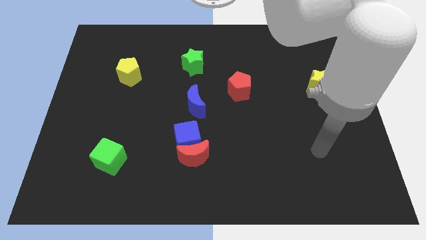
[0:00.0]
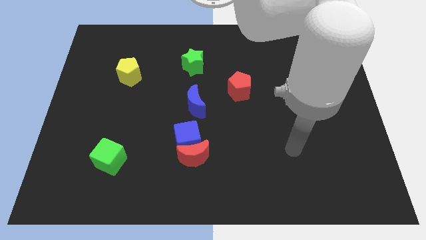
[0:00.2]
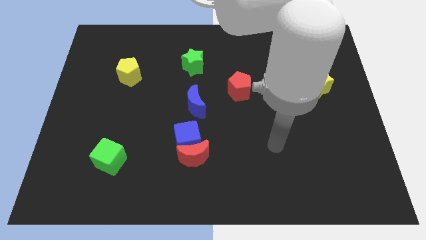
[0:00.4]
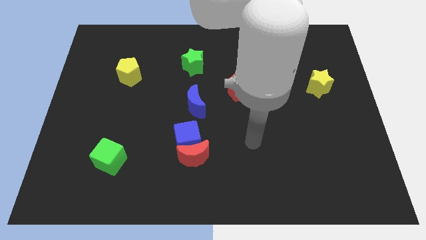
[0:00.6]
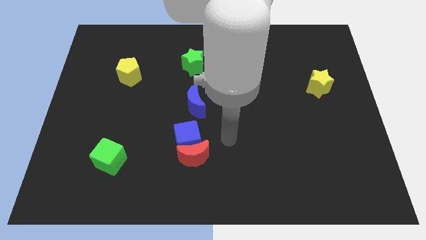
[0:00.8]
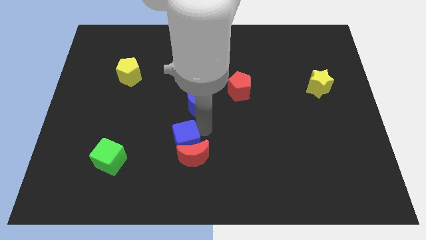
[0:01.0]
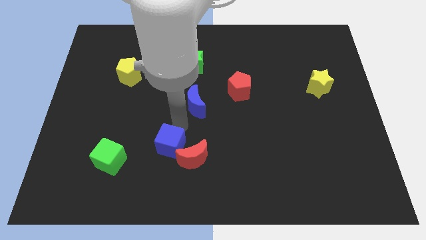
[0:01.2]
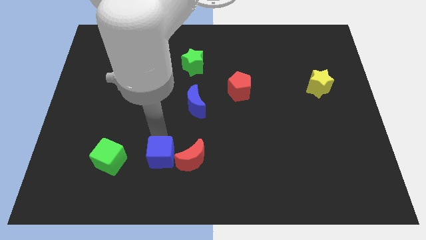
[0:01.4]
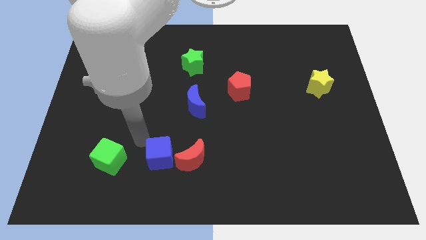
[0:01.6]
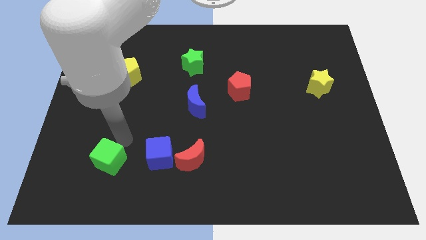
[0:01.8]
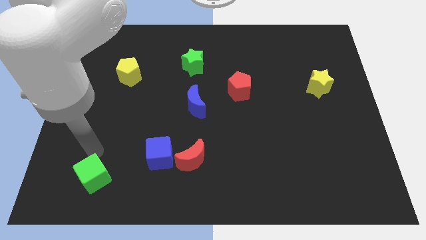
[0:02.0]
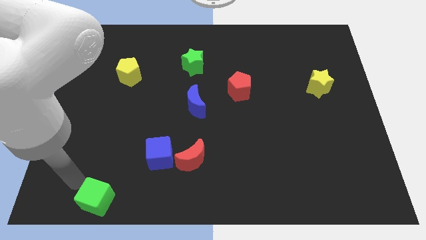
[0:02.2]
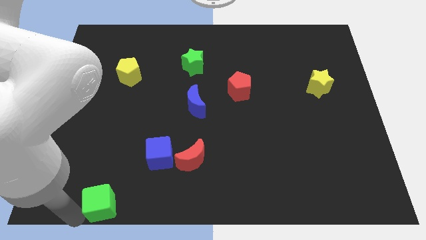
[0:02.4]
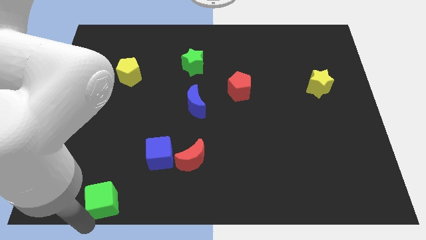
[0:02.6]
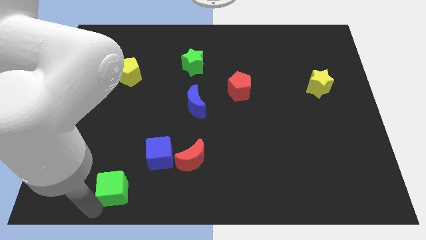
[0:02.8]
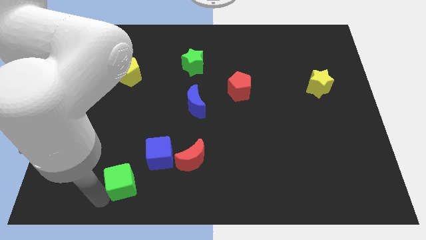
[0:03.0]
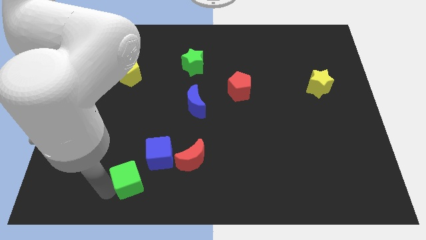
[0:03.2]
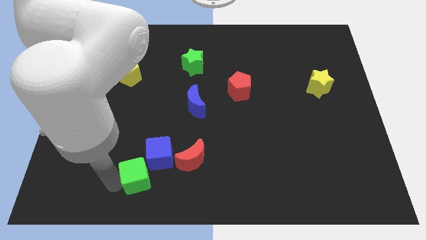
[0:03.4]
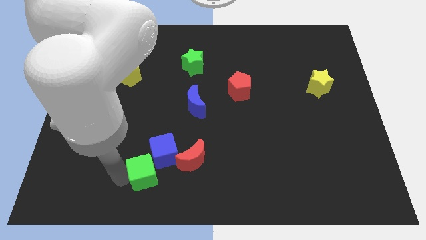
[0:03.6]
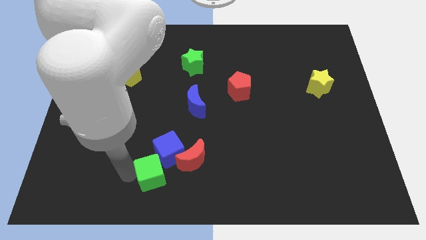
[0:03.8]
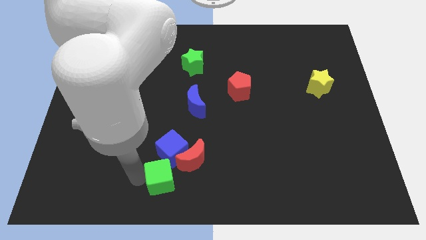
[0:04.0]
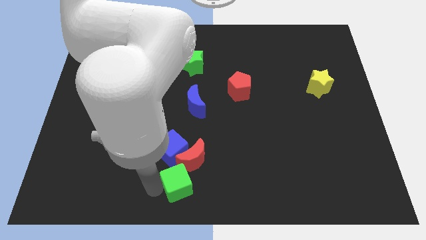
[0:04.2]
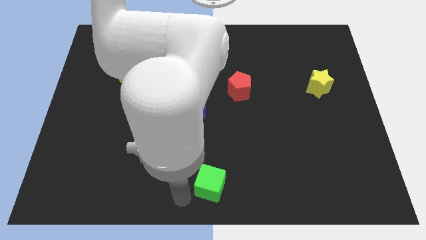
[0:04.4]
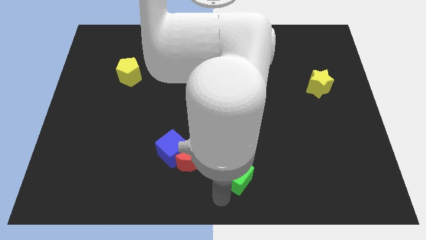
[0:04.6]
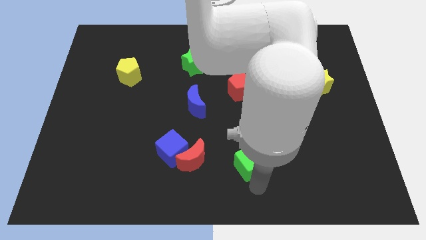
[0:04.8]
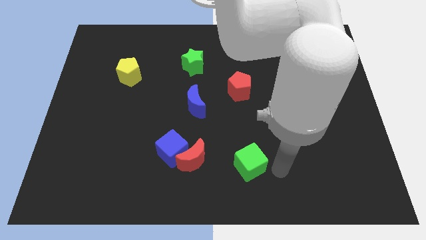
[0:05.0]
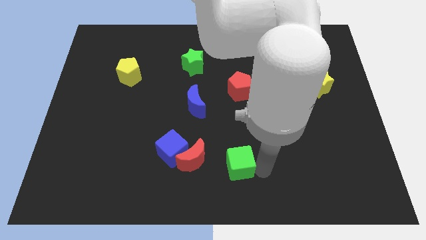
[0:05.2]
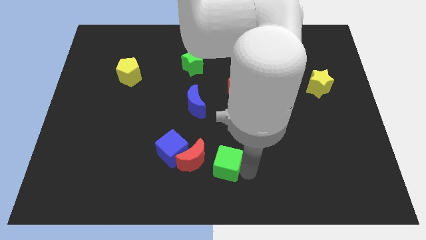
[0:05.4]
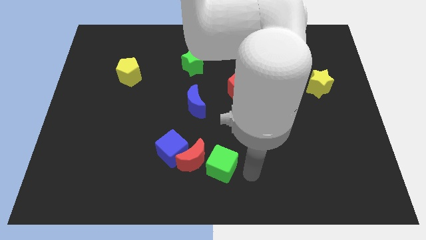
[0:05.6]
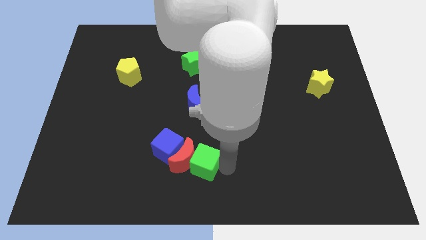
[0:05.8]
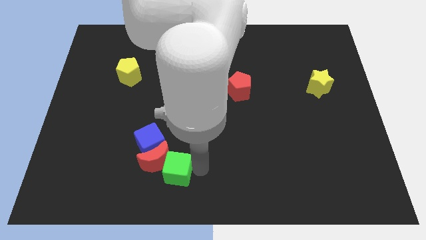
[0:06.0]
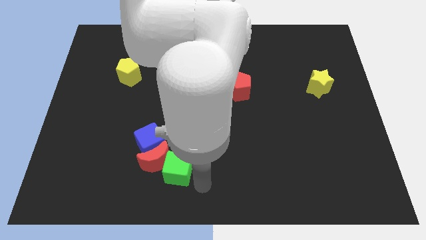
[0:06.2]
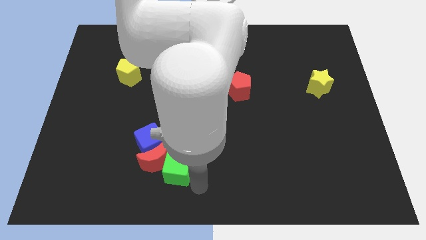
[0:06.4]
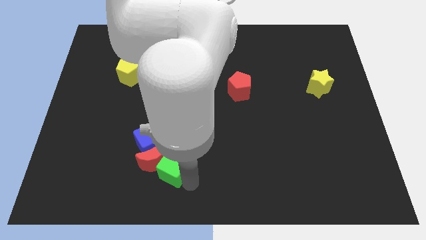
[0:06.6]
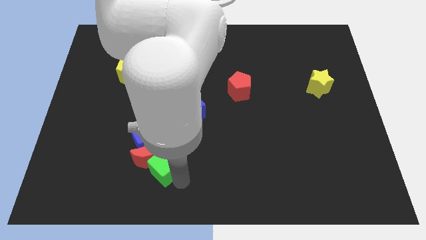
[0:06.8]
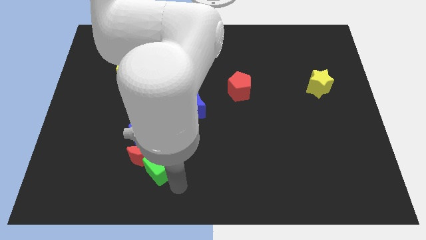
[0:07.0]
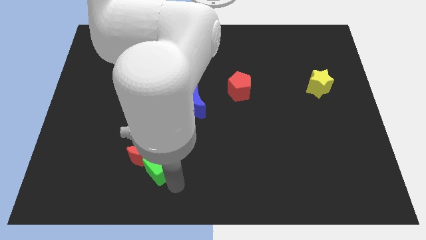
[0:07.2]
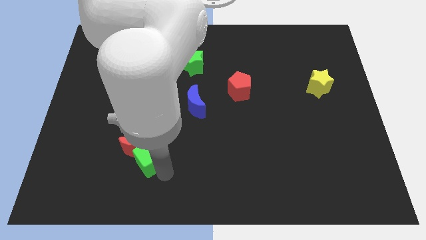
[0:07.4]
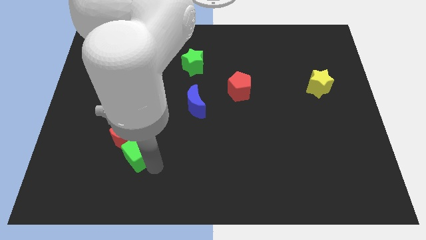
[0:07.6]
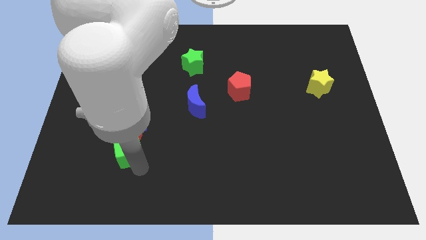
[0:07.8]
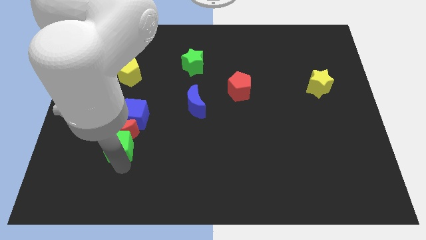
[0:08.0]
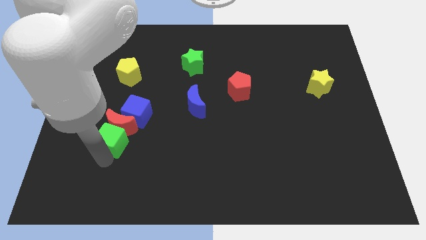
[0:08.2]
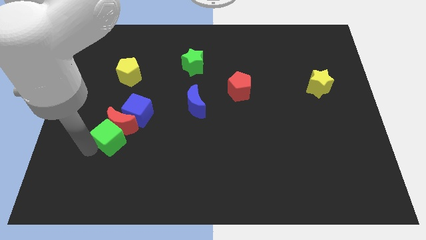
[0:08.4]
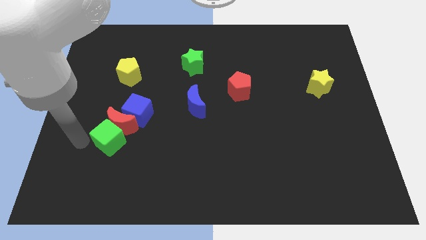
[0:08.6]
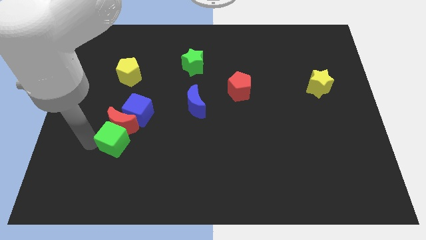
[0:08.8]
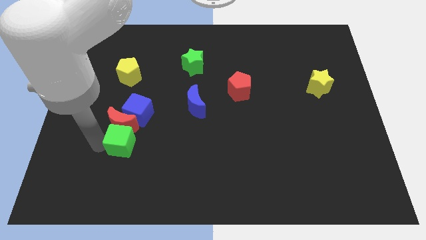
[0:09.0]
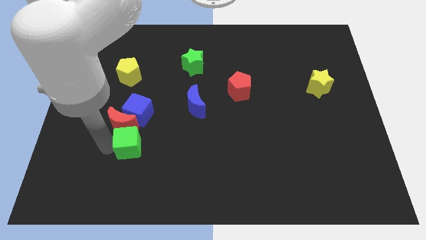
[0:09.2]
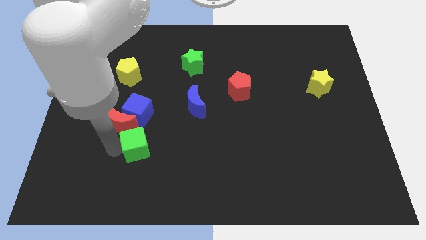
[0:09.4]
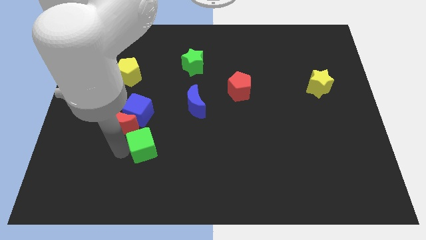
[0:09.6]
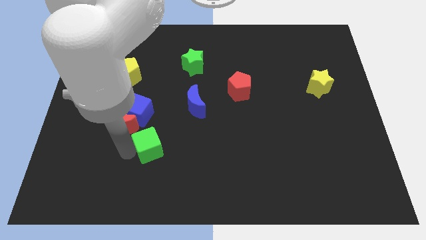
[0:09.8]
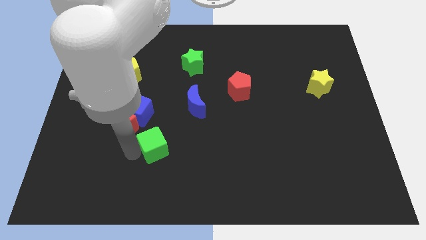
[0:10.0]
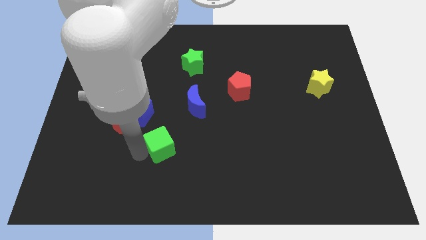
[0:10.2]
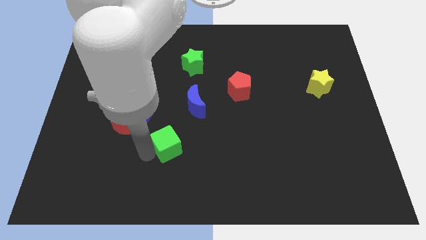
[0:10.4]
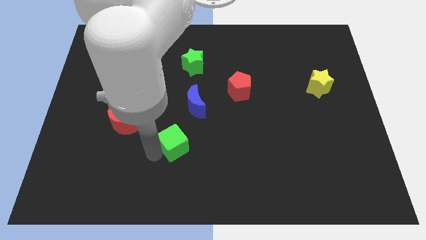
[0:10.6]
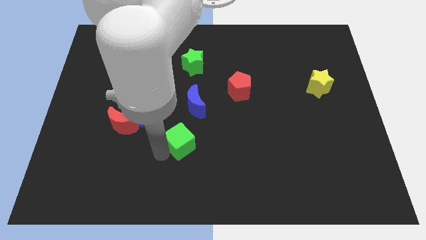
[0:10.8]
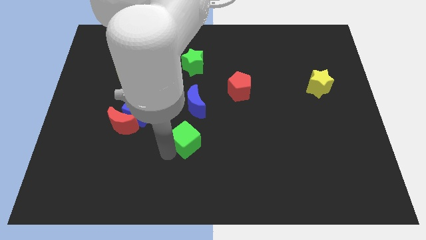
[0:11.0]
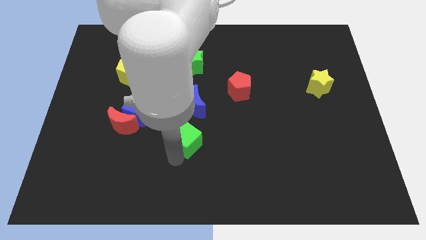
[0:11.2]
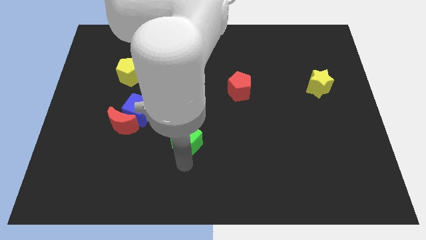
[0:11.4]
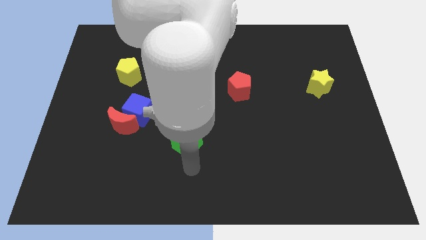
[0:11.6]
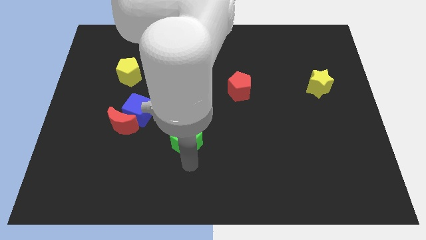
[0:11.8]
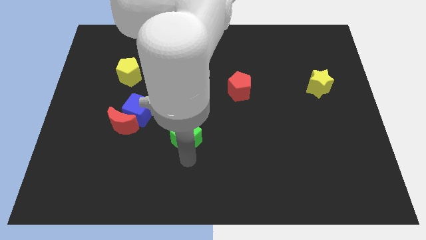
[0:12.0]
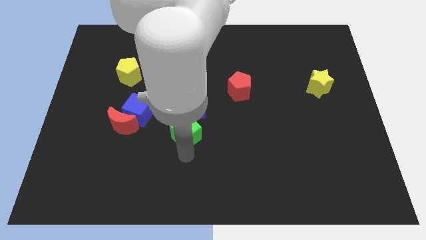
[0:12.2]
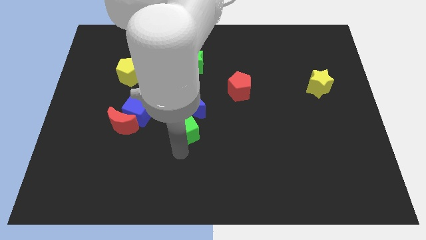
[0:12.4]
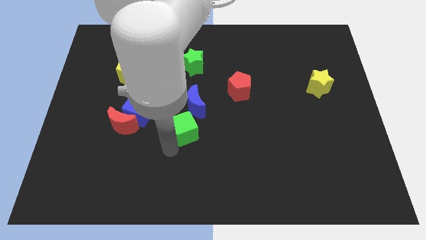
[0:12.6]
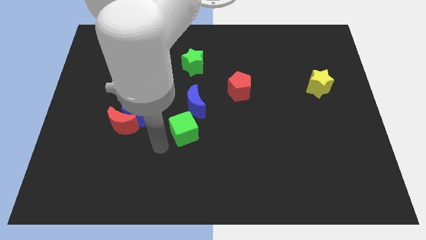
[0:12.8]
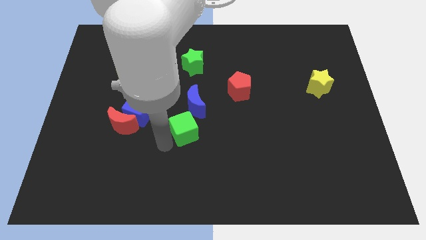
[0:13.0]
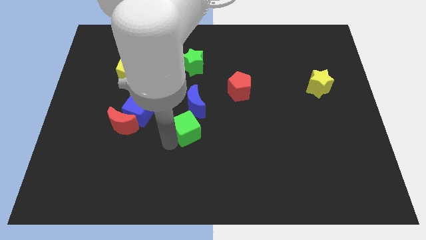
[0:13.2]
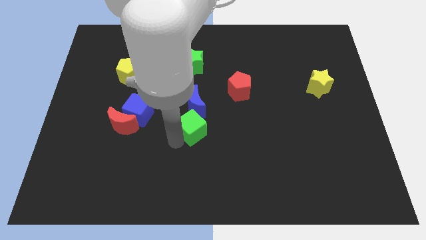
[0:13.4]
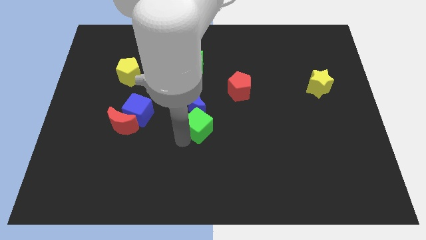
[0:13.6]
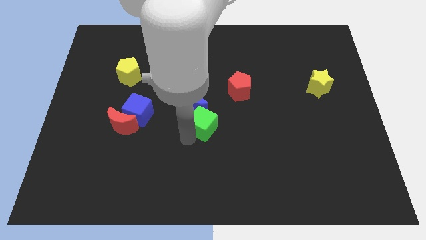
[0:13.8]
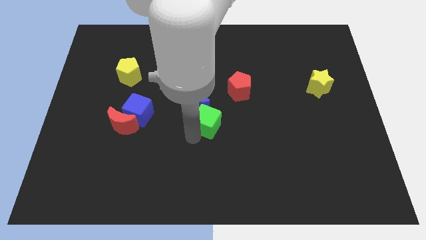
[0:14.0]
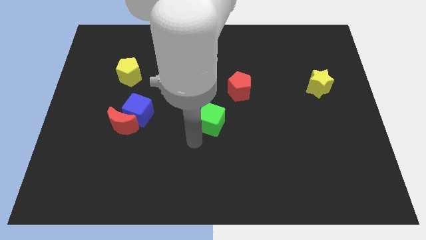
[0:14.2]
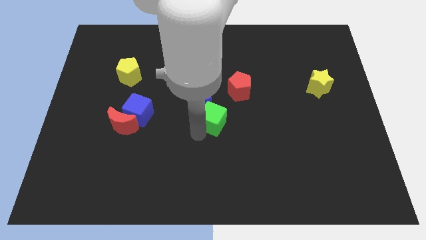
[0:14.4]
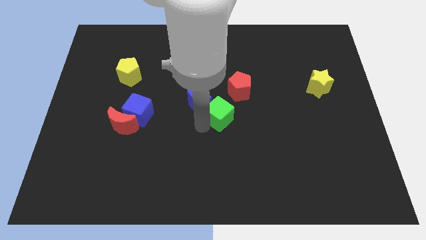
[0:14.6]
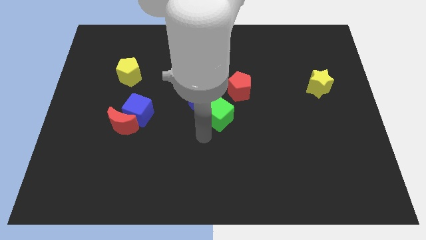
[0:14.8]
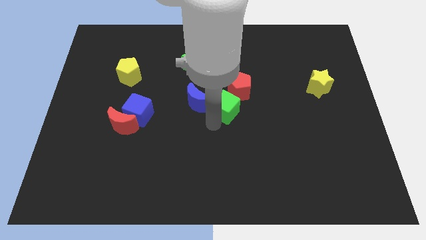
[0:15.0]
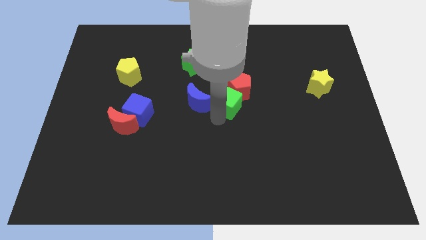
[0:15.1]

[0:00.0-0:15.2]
move the green cube next to the red pentagon

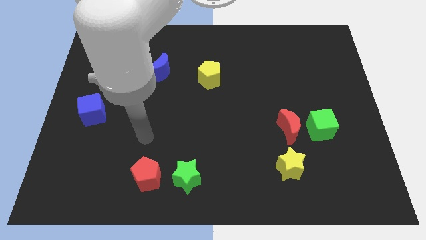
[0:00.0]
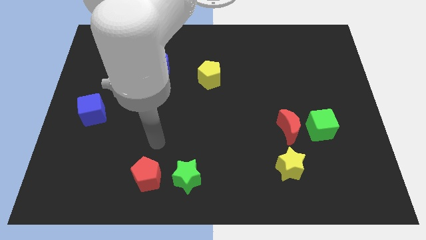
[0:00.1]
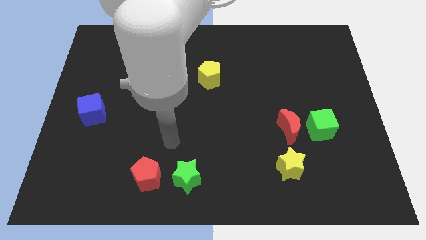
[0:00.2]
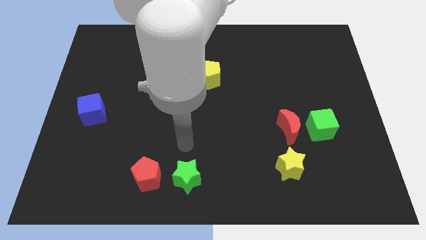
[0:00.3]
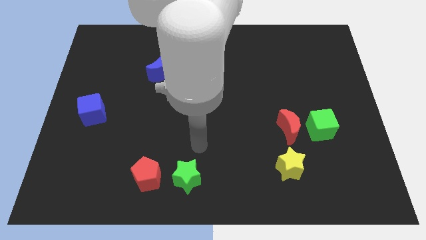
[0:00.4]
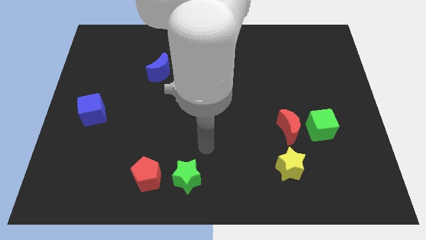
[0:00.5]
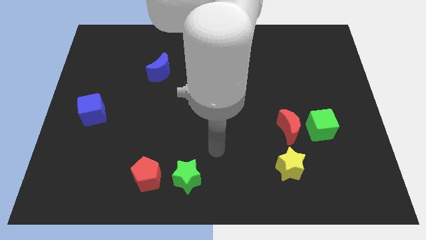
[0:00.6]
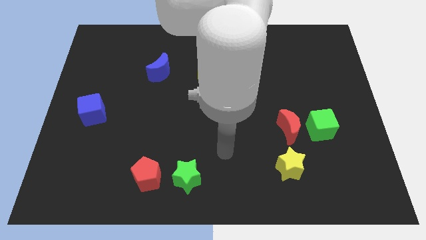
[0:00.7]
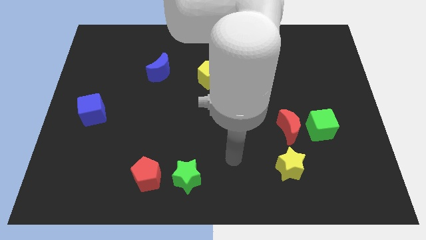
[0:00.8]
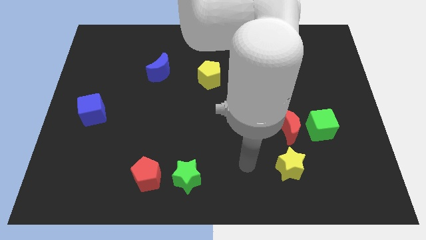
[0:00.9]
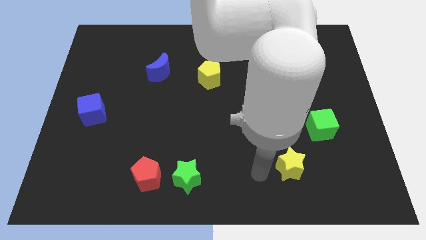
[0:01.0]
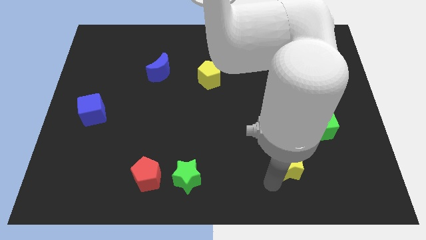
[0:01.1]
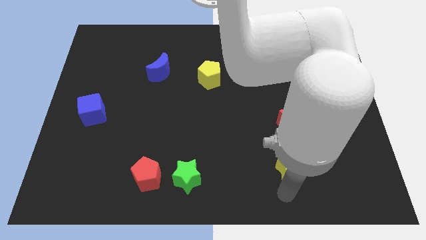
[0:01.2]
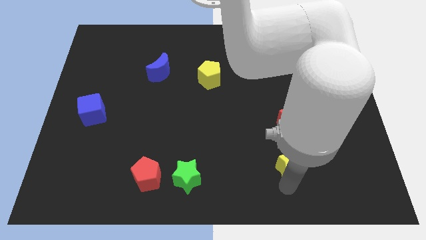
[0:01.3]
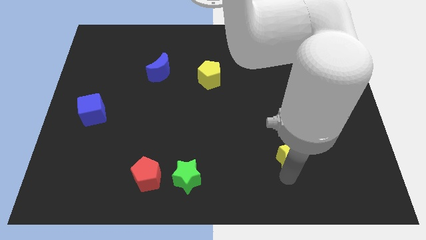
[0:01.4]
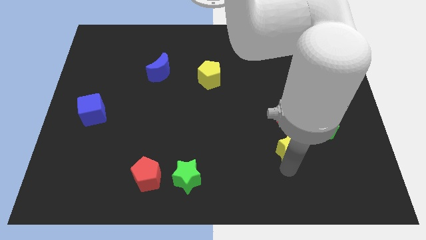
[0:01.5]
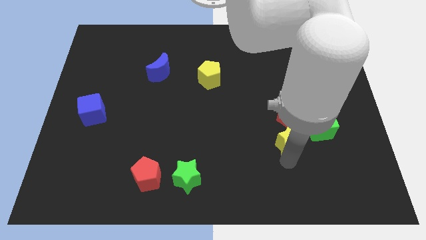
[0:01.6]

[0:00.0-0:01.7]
slide the yellow star towards the red moon
